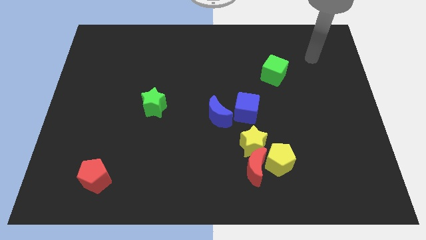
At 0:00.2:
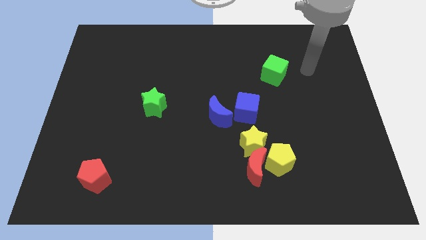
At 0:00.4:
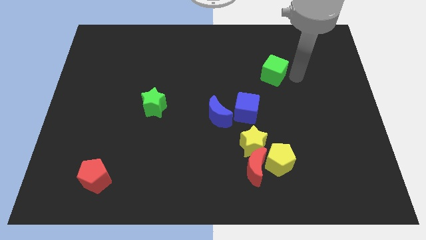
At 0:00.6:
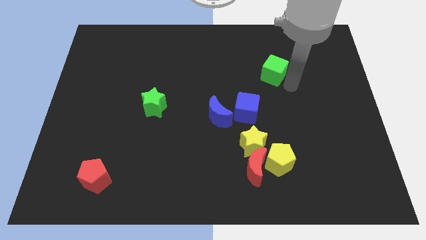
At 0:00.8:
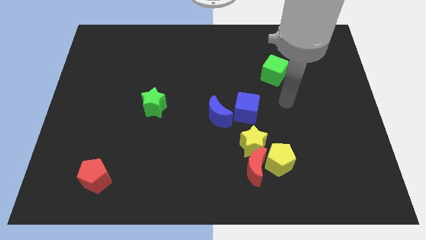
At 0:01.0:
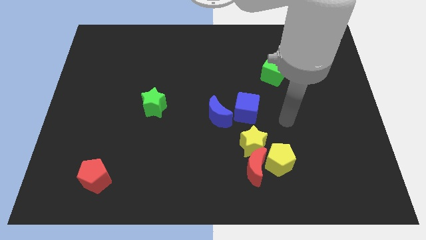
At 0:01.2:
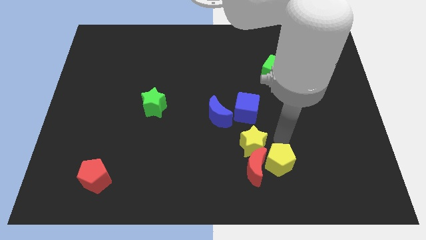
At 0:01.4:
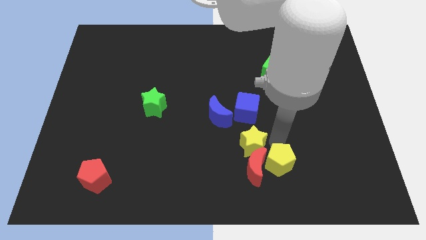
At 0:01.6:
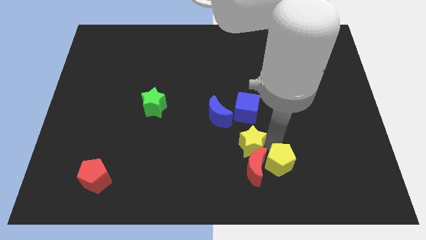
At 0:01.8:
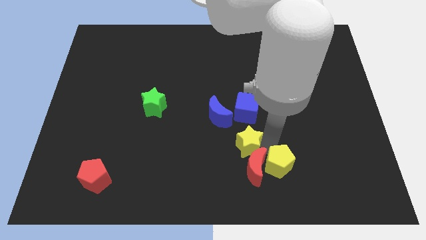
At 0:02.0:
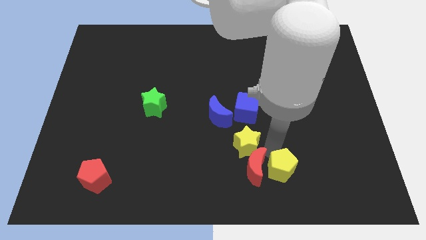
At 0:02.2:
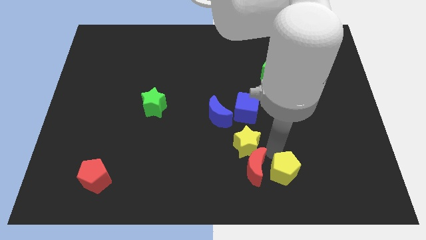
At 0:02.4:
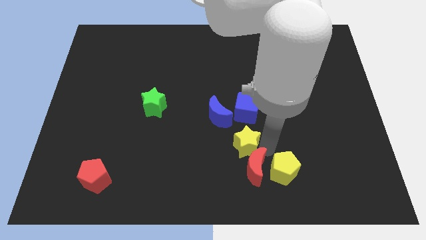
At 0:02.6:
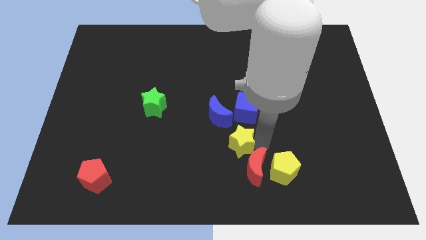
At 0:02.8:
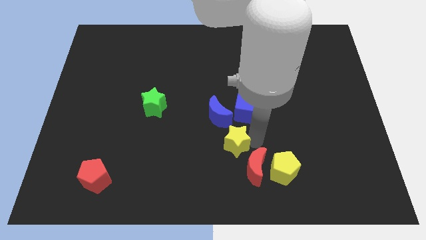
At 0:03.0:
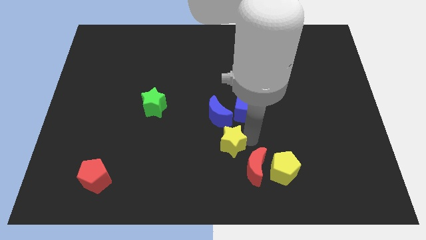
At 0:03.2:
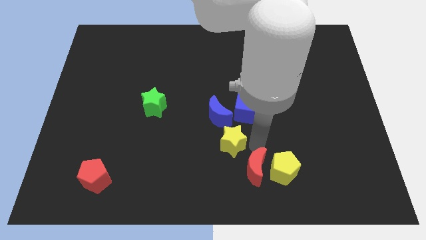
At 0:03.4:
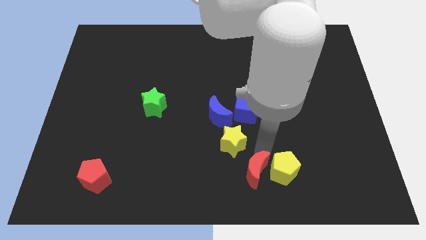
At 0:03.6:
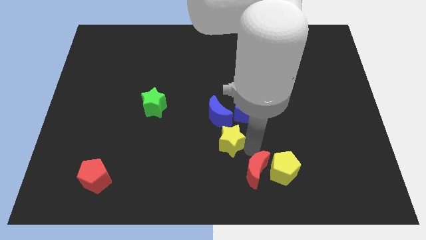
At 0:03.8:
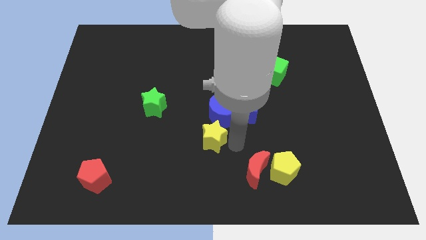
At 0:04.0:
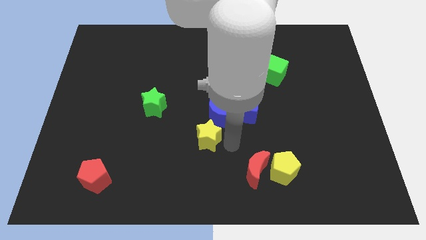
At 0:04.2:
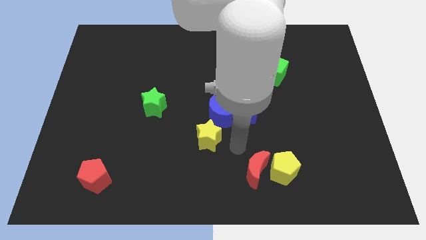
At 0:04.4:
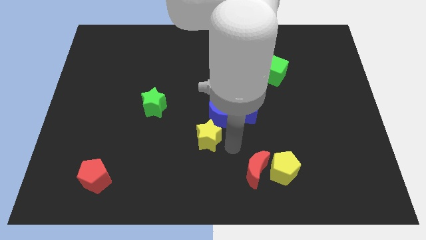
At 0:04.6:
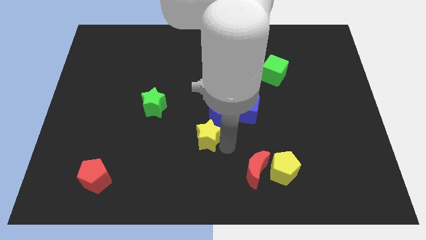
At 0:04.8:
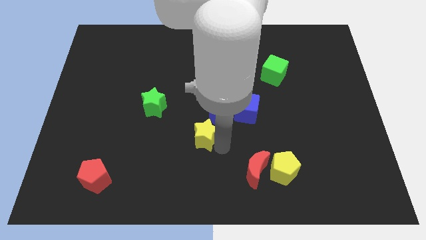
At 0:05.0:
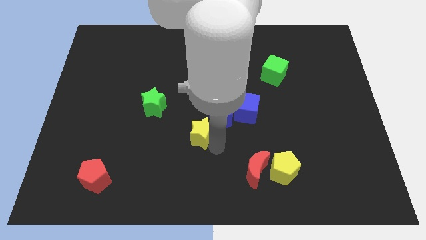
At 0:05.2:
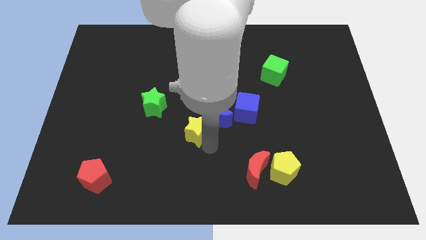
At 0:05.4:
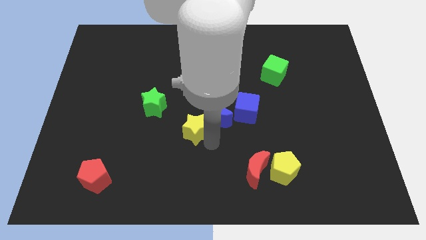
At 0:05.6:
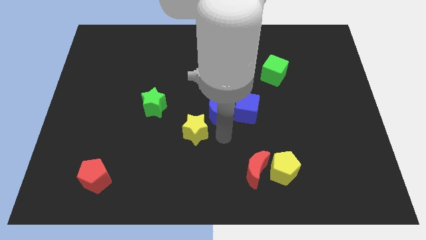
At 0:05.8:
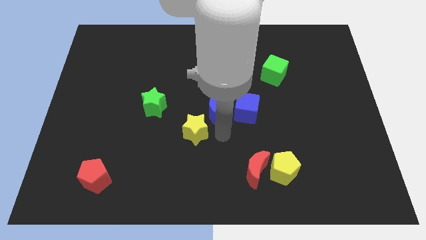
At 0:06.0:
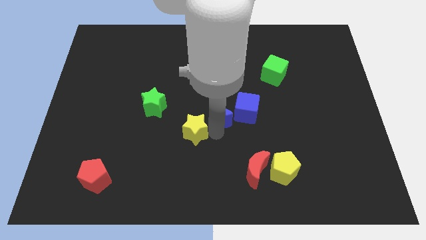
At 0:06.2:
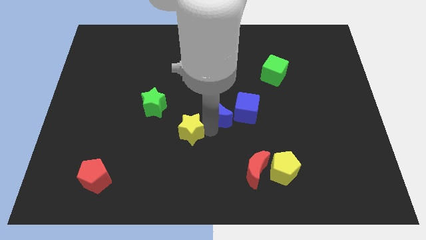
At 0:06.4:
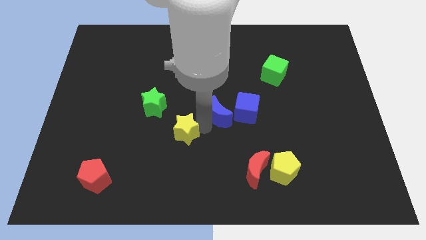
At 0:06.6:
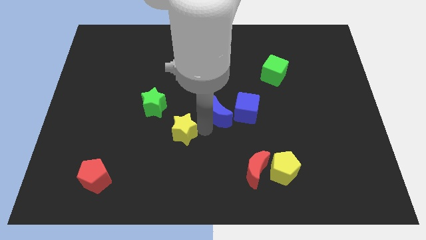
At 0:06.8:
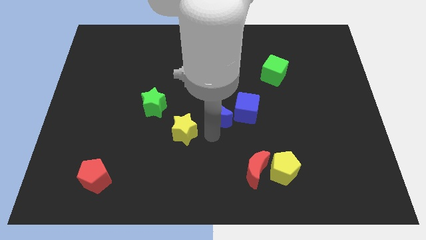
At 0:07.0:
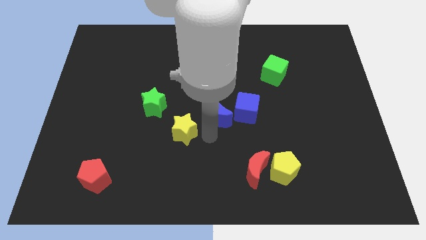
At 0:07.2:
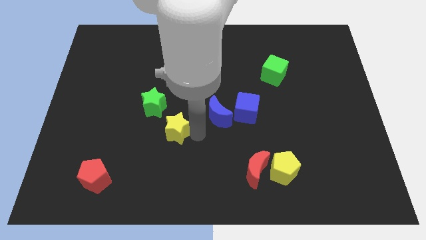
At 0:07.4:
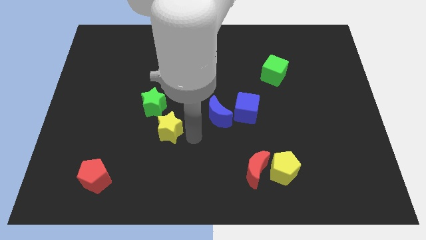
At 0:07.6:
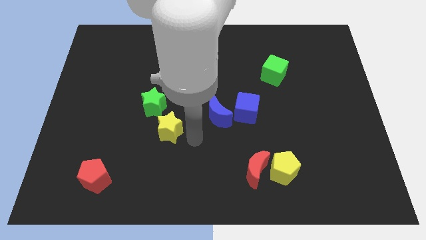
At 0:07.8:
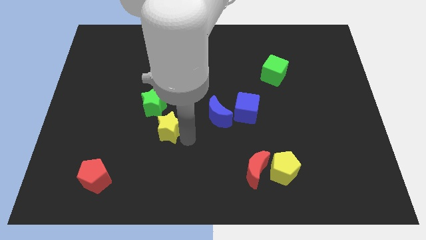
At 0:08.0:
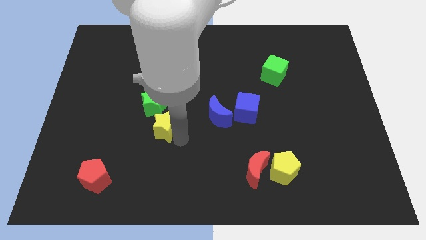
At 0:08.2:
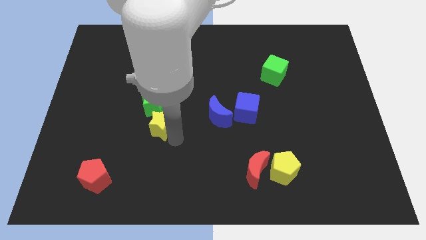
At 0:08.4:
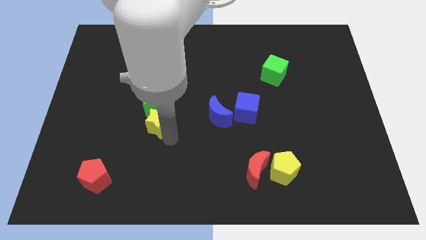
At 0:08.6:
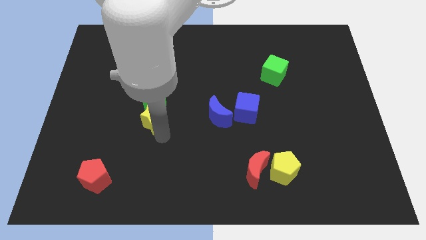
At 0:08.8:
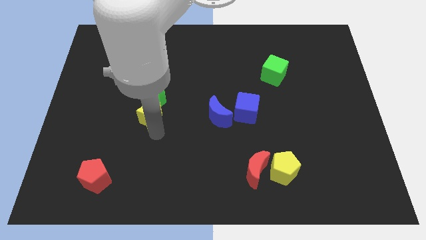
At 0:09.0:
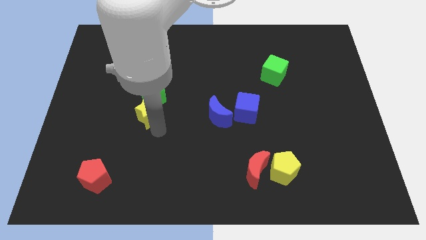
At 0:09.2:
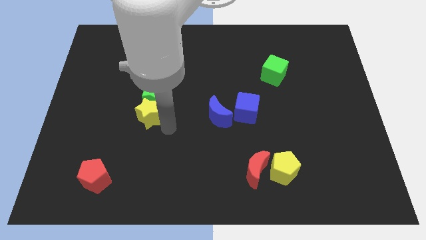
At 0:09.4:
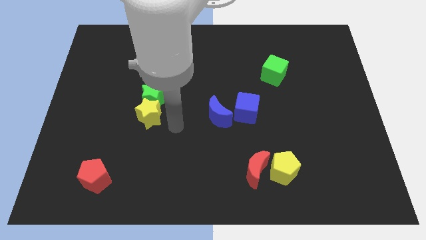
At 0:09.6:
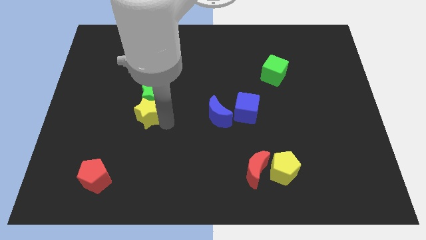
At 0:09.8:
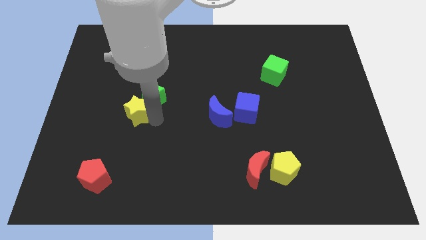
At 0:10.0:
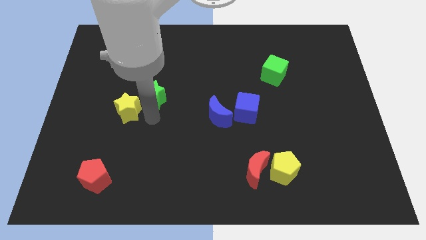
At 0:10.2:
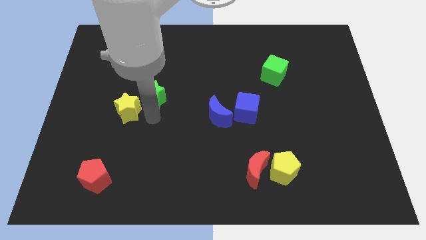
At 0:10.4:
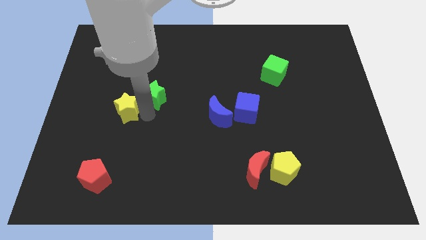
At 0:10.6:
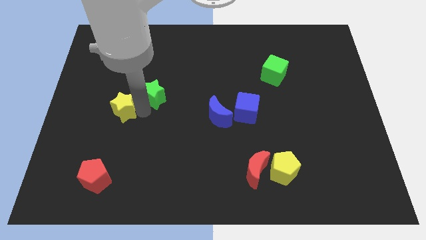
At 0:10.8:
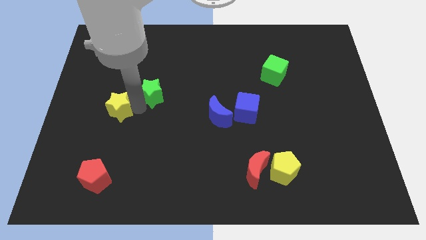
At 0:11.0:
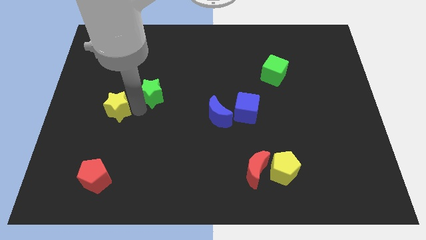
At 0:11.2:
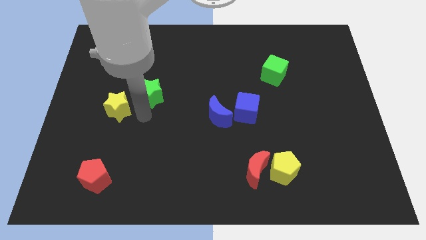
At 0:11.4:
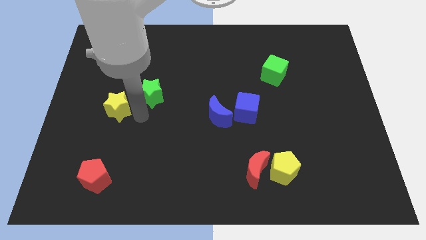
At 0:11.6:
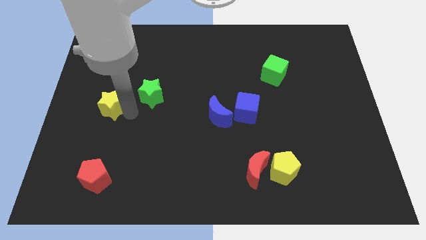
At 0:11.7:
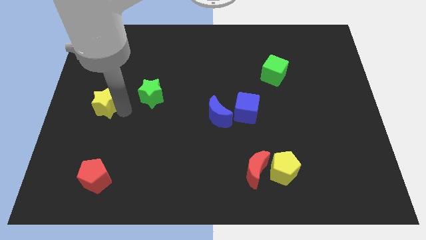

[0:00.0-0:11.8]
push the yellow star to the left side of the board
